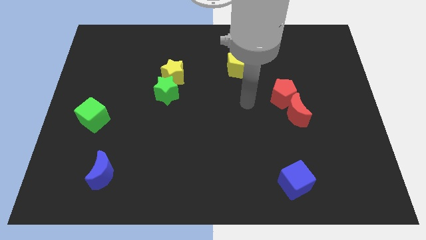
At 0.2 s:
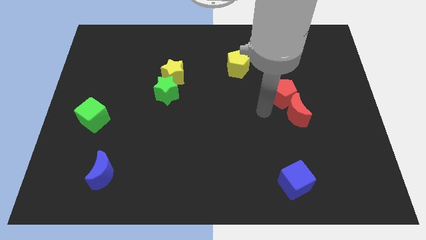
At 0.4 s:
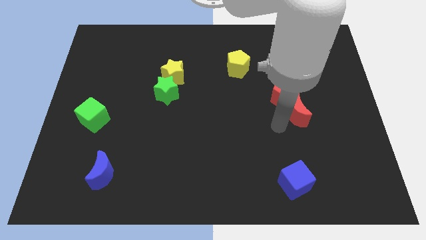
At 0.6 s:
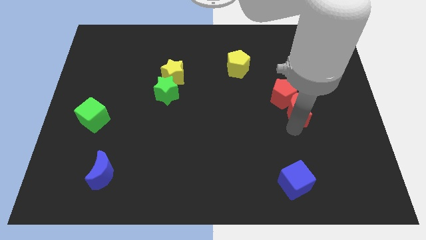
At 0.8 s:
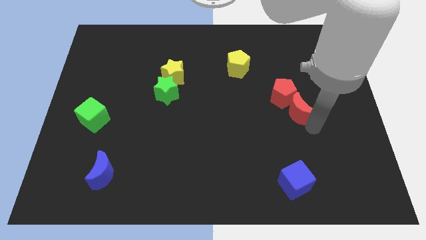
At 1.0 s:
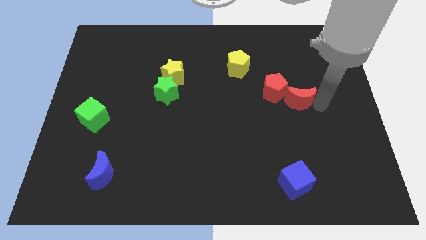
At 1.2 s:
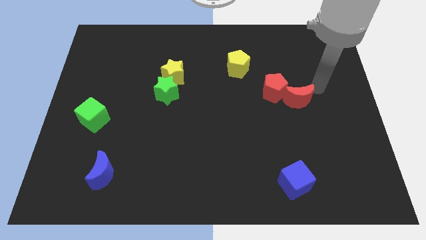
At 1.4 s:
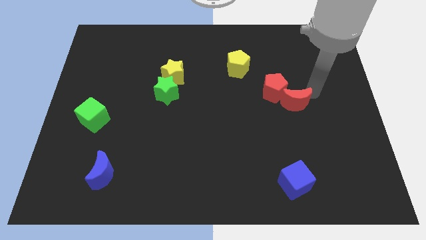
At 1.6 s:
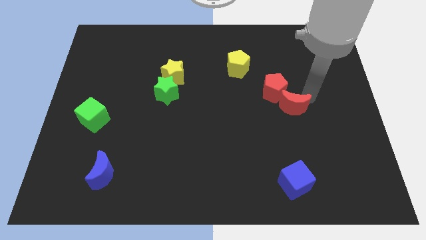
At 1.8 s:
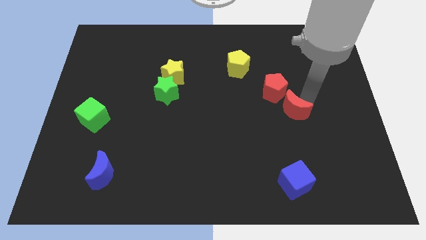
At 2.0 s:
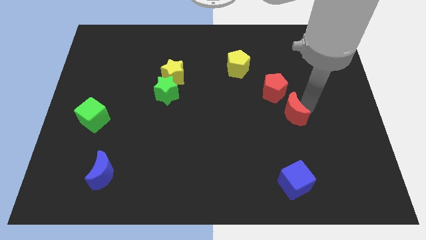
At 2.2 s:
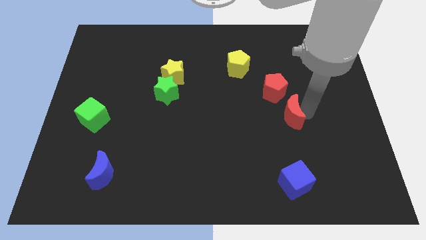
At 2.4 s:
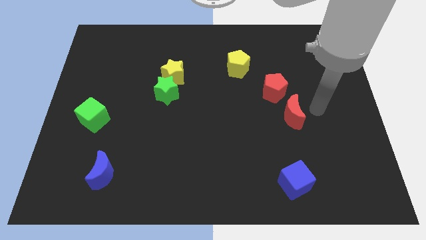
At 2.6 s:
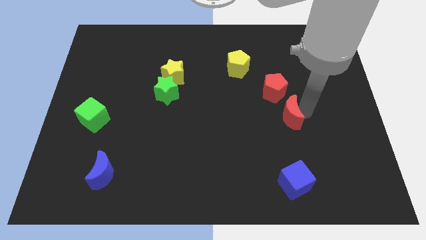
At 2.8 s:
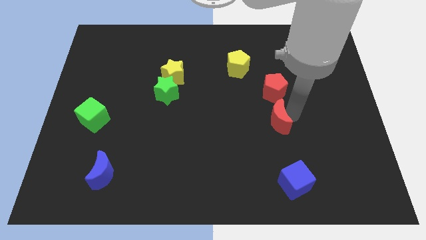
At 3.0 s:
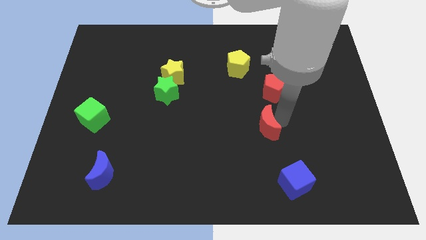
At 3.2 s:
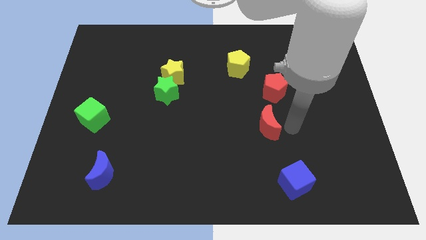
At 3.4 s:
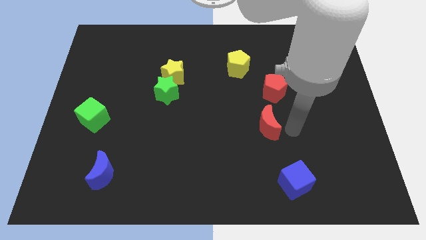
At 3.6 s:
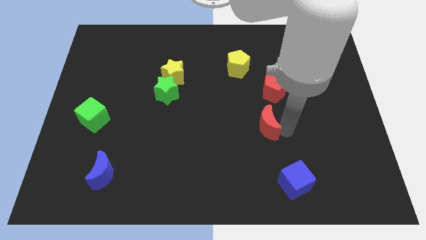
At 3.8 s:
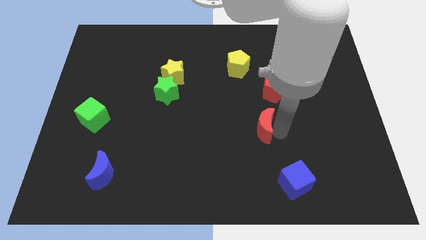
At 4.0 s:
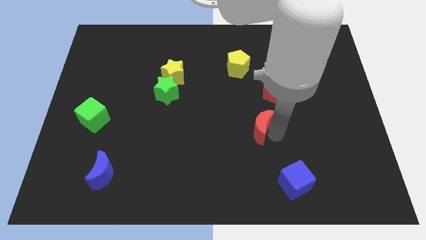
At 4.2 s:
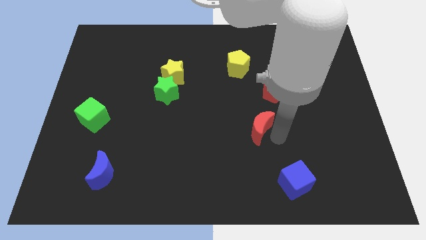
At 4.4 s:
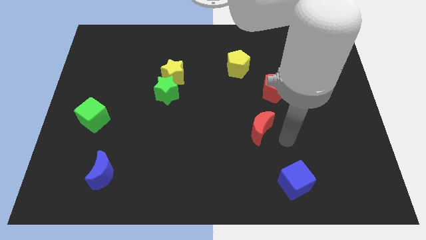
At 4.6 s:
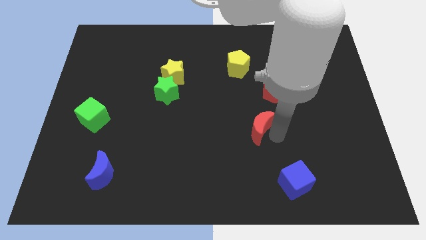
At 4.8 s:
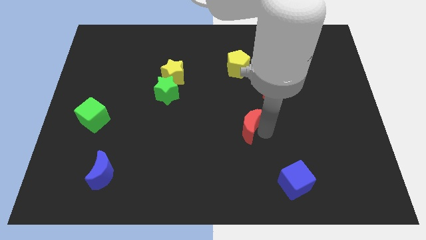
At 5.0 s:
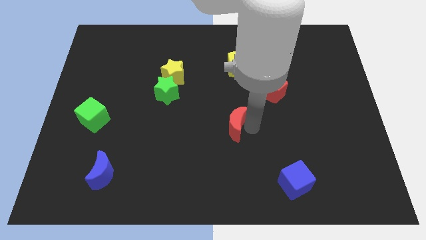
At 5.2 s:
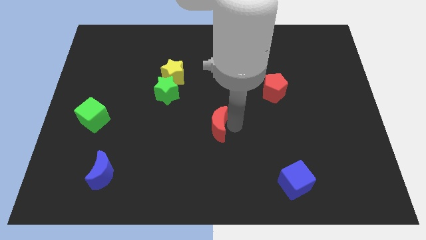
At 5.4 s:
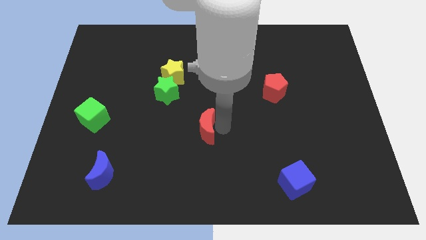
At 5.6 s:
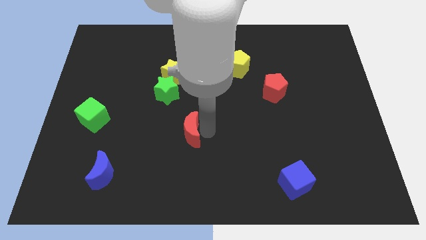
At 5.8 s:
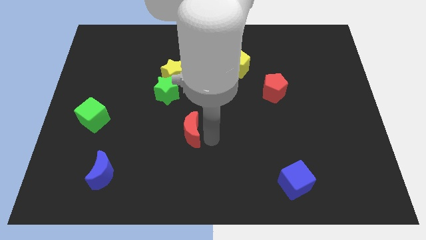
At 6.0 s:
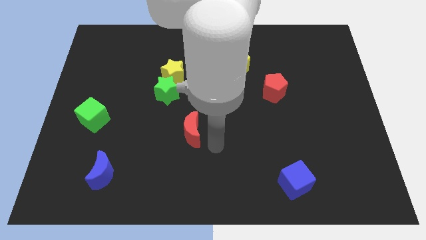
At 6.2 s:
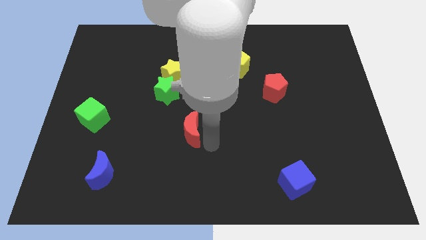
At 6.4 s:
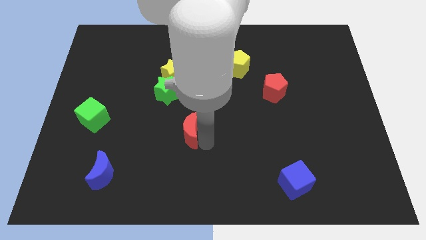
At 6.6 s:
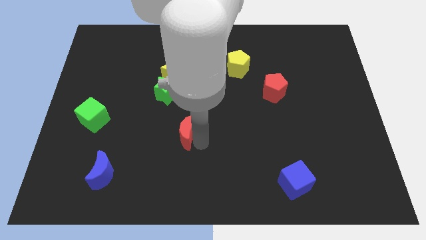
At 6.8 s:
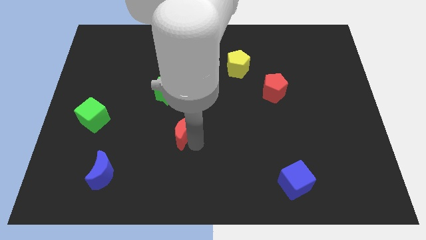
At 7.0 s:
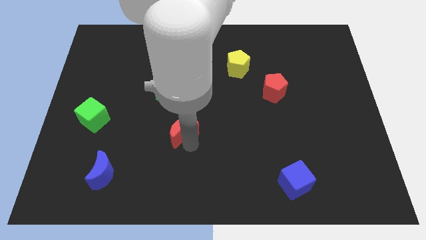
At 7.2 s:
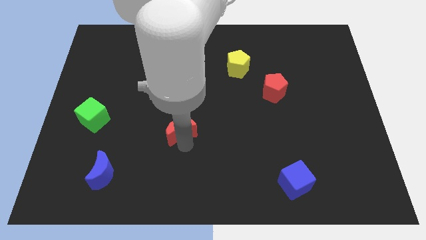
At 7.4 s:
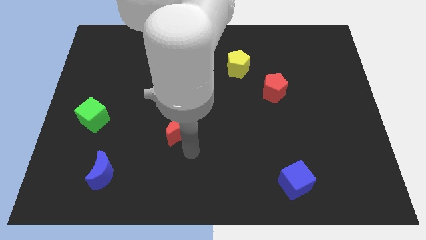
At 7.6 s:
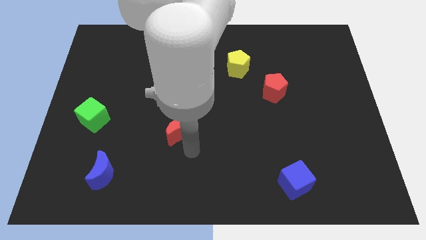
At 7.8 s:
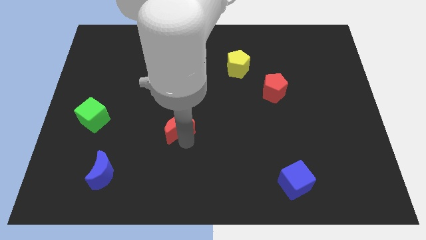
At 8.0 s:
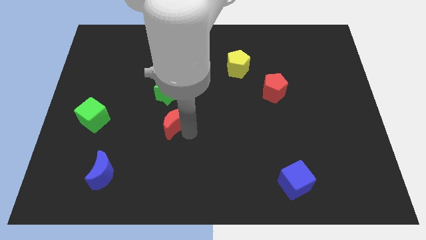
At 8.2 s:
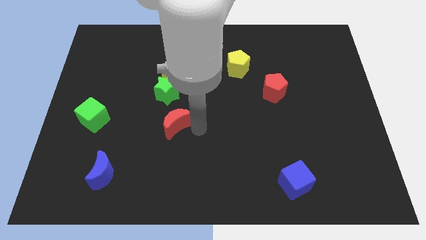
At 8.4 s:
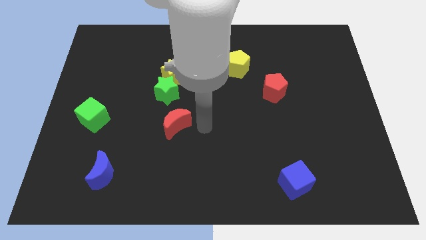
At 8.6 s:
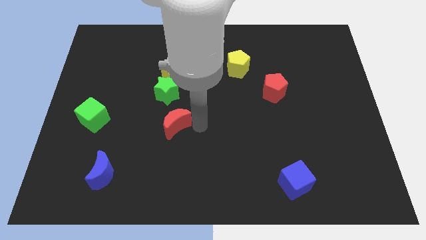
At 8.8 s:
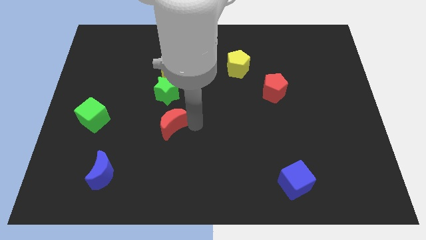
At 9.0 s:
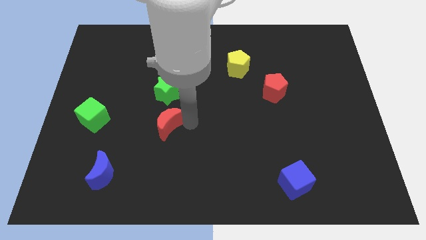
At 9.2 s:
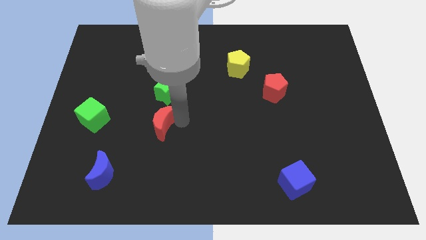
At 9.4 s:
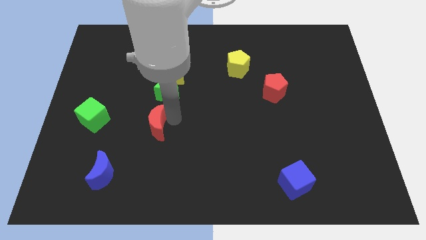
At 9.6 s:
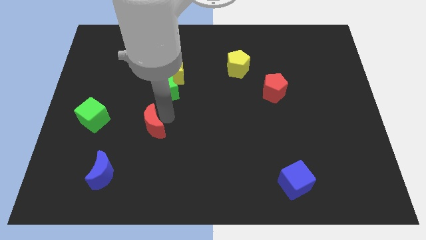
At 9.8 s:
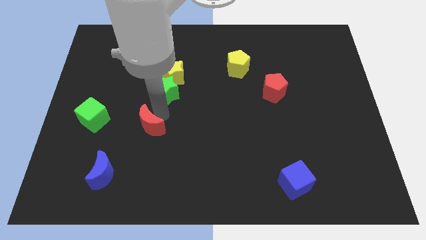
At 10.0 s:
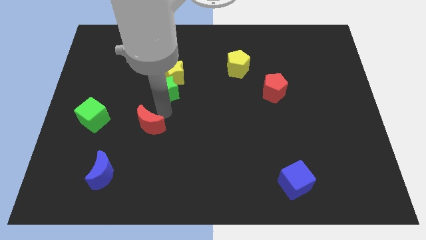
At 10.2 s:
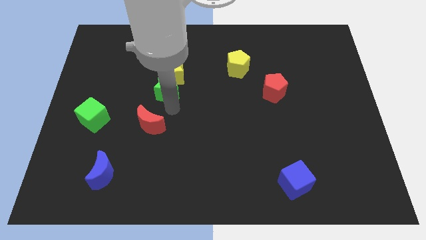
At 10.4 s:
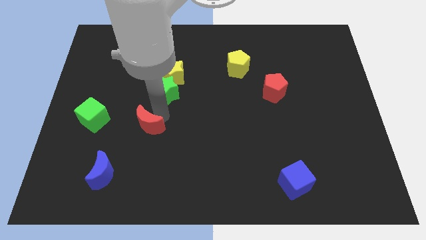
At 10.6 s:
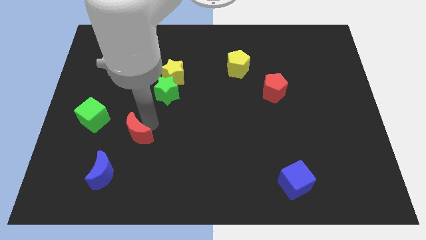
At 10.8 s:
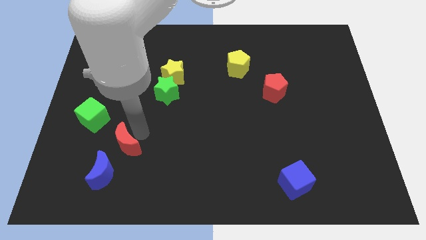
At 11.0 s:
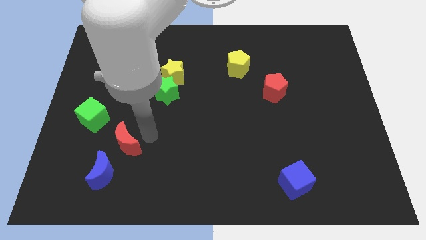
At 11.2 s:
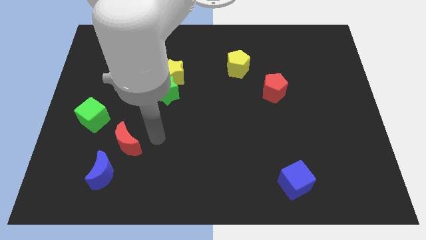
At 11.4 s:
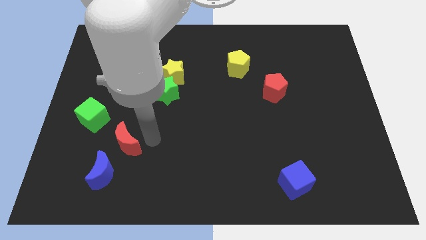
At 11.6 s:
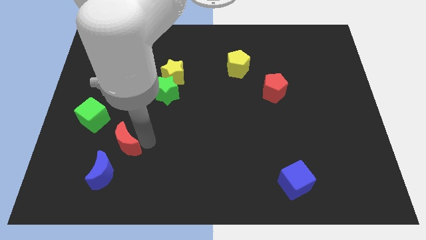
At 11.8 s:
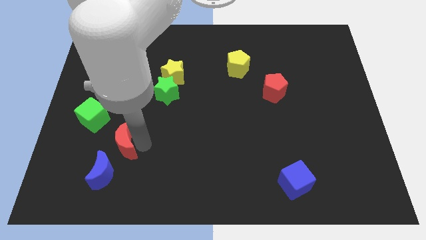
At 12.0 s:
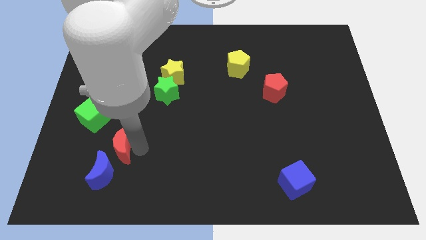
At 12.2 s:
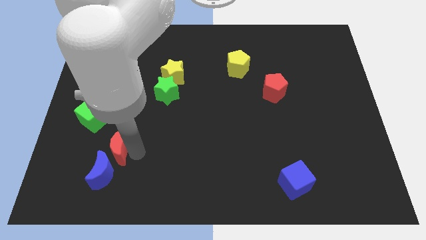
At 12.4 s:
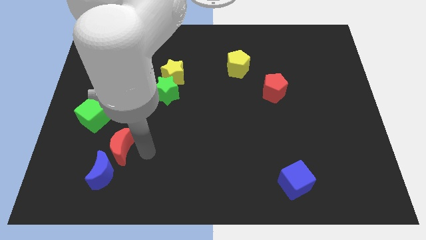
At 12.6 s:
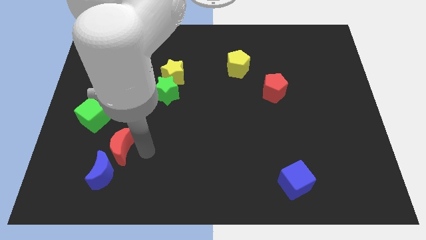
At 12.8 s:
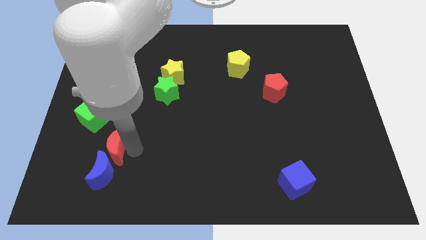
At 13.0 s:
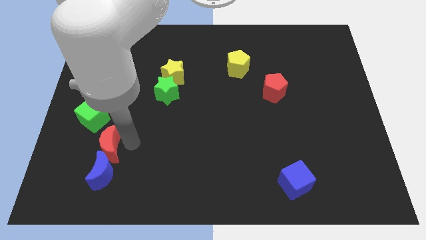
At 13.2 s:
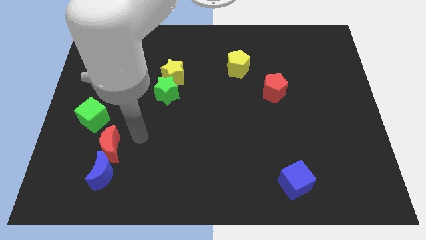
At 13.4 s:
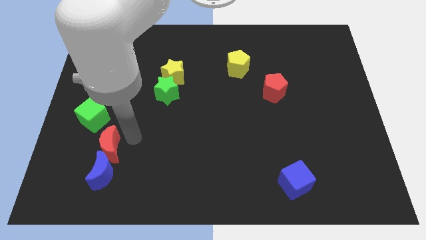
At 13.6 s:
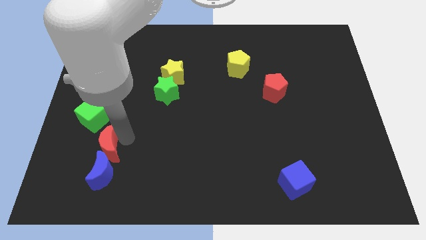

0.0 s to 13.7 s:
put the red moon to the bottom of the green cube
